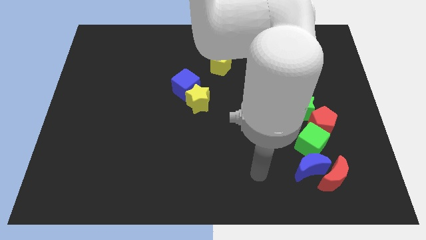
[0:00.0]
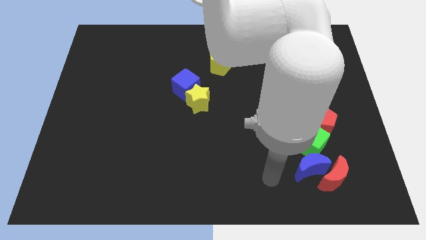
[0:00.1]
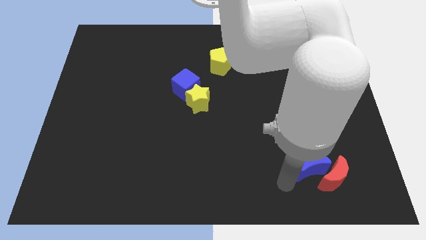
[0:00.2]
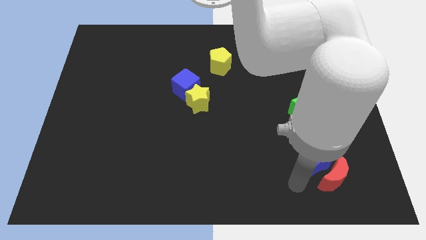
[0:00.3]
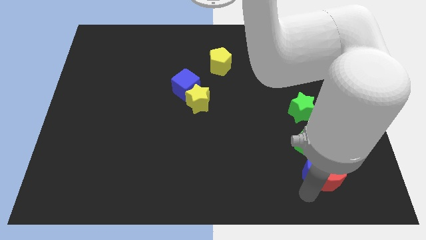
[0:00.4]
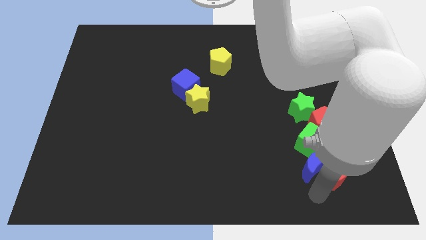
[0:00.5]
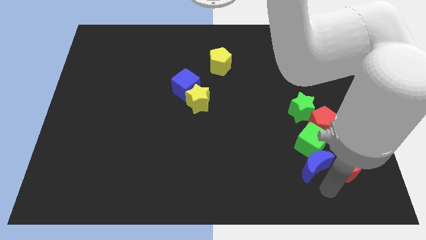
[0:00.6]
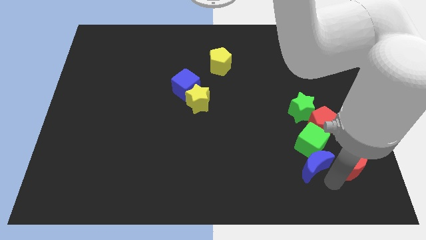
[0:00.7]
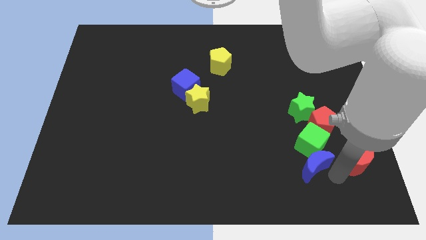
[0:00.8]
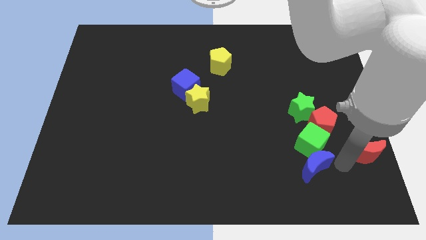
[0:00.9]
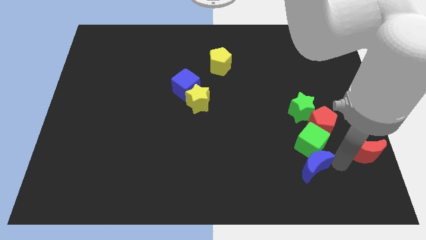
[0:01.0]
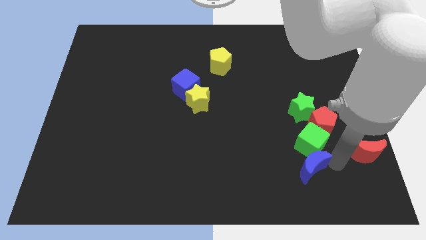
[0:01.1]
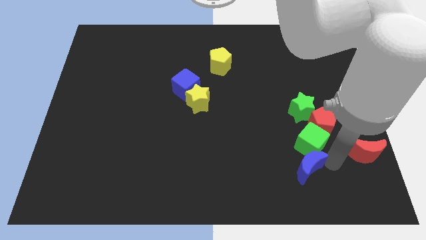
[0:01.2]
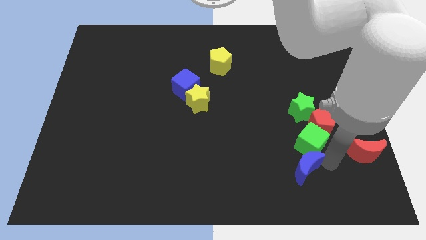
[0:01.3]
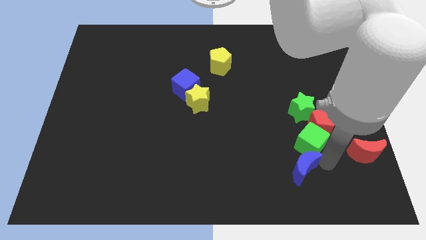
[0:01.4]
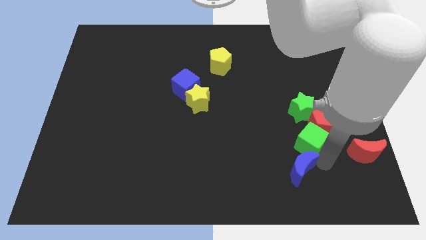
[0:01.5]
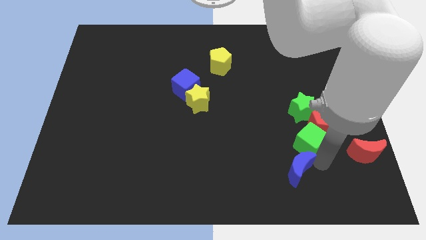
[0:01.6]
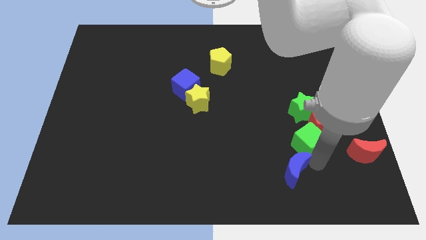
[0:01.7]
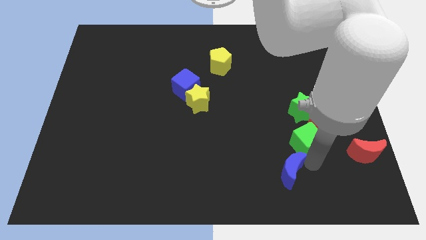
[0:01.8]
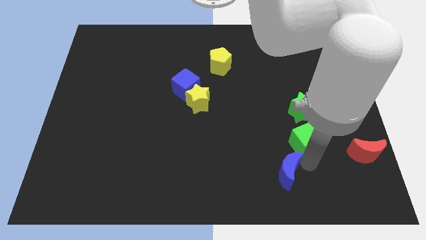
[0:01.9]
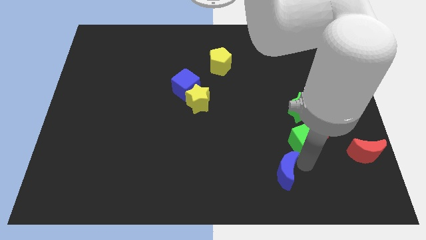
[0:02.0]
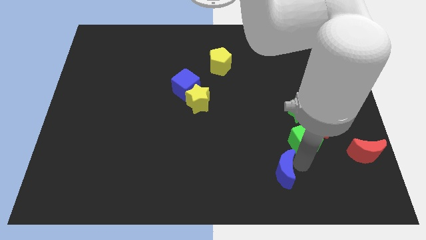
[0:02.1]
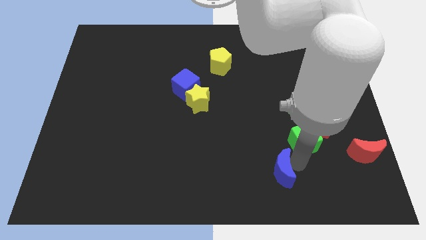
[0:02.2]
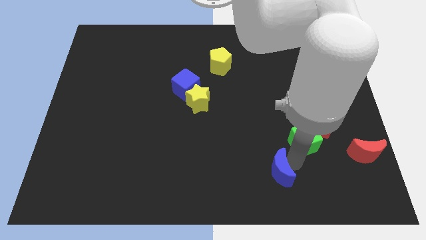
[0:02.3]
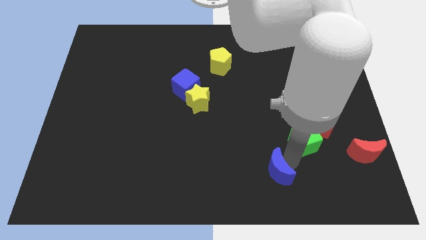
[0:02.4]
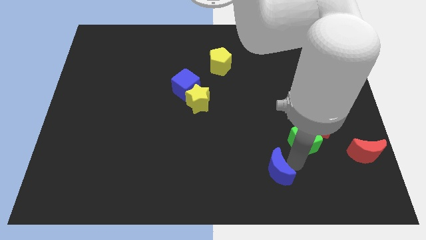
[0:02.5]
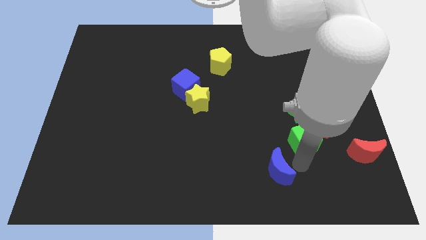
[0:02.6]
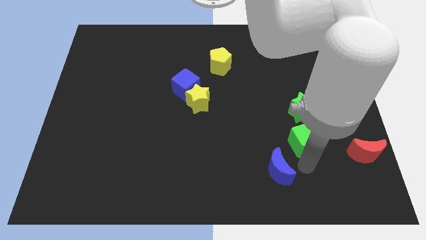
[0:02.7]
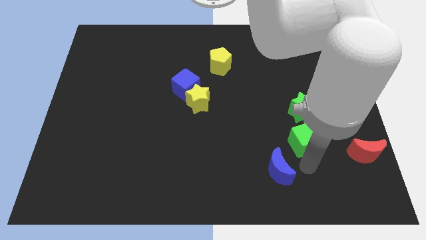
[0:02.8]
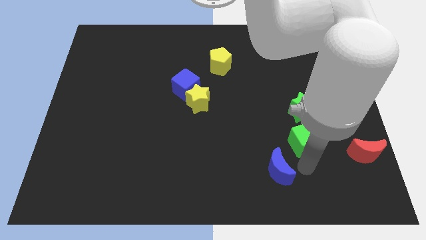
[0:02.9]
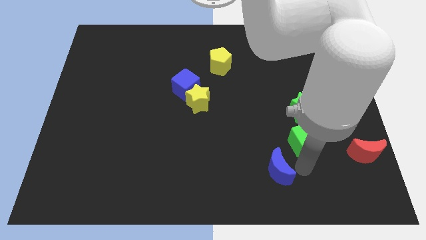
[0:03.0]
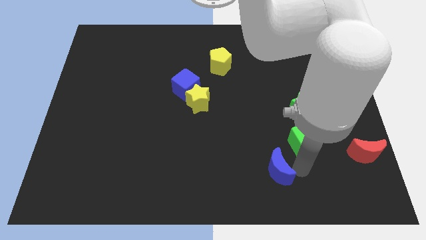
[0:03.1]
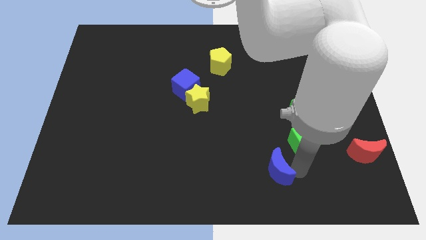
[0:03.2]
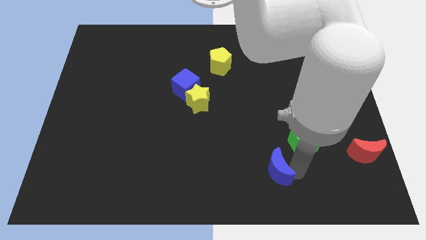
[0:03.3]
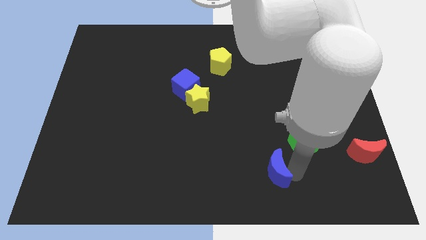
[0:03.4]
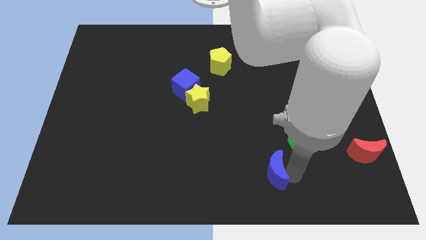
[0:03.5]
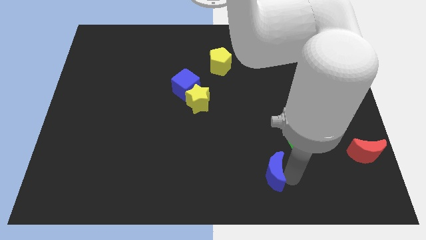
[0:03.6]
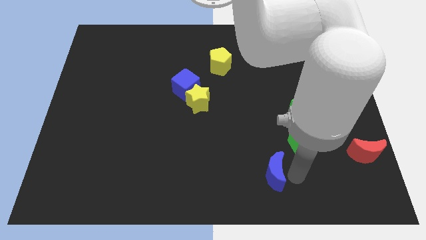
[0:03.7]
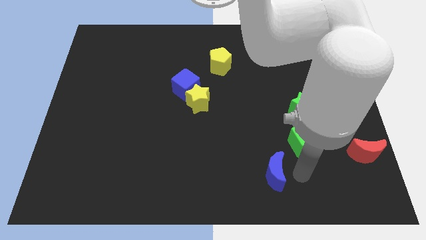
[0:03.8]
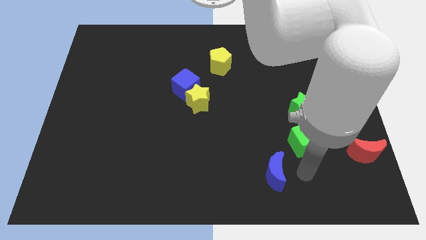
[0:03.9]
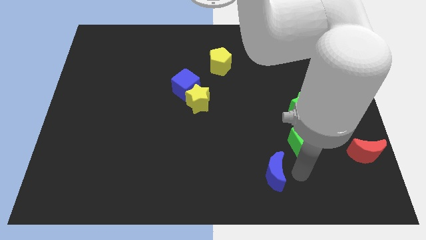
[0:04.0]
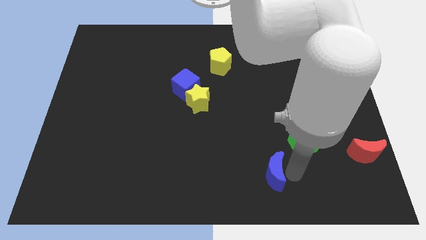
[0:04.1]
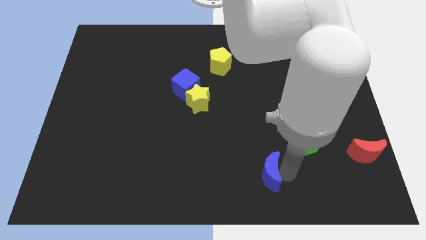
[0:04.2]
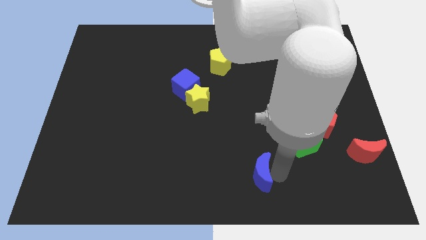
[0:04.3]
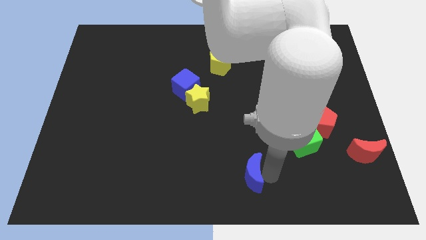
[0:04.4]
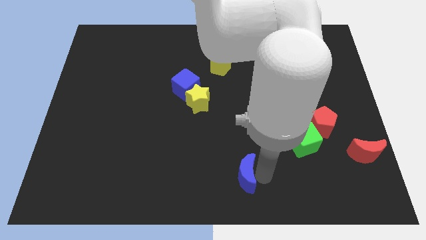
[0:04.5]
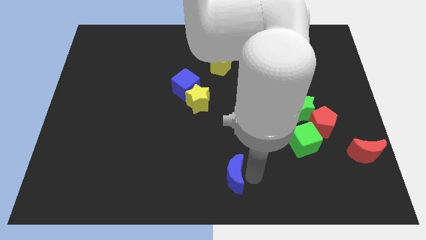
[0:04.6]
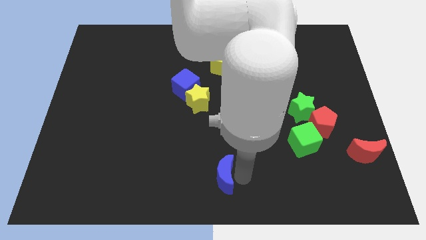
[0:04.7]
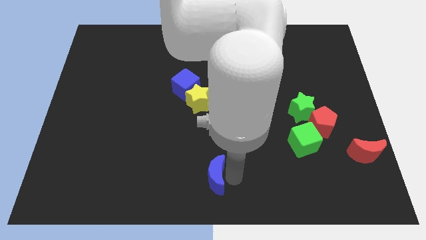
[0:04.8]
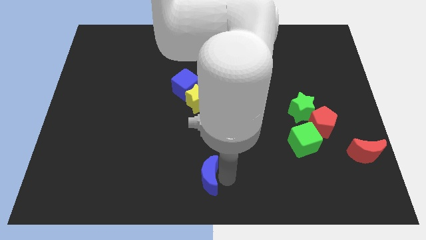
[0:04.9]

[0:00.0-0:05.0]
push the blue moon left

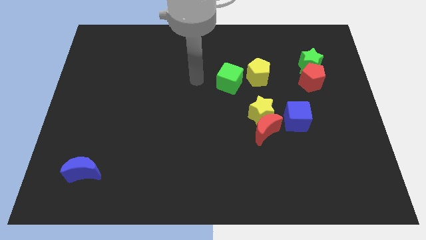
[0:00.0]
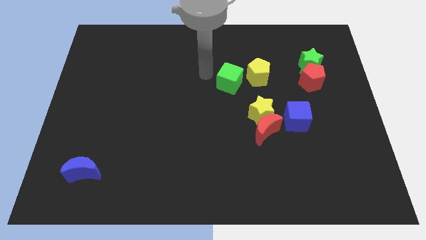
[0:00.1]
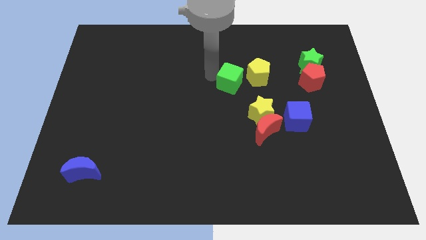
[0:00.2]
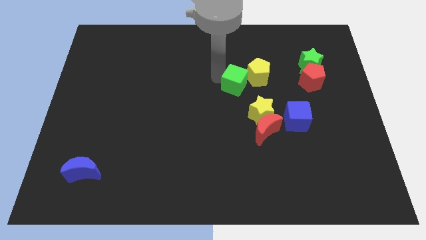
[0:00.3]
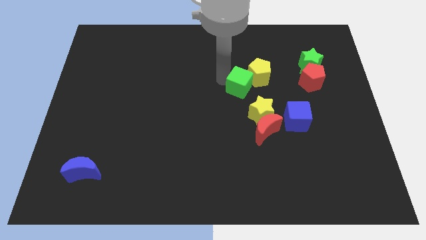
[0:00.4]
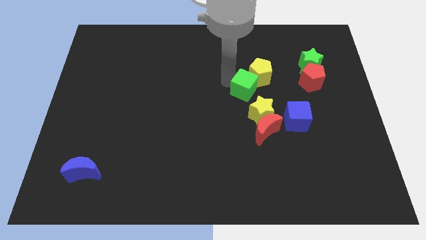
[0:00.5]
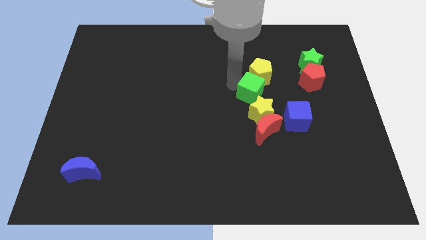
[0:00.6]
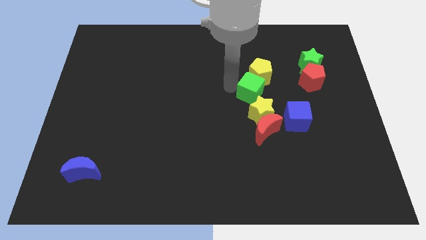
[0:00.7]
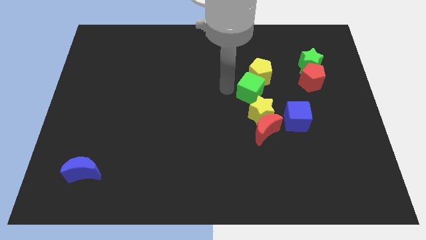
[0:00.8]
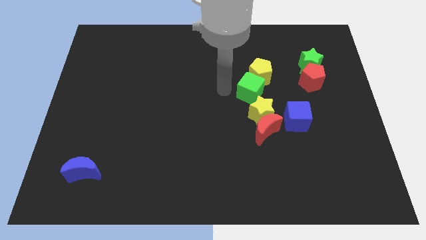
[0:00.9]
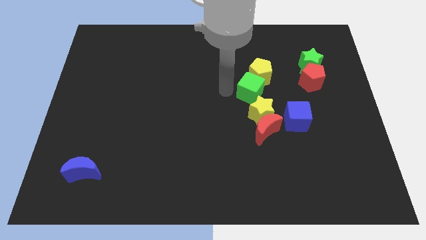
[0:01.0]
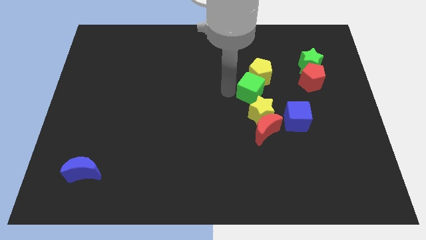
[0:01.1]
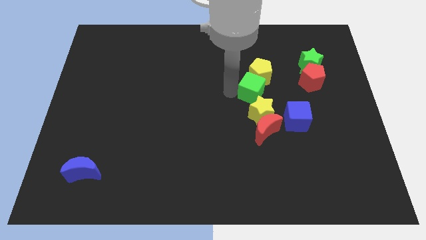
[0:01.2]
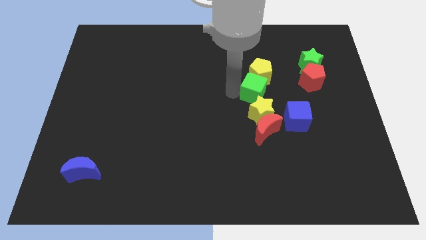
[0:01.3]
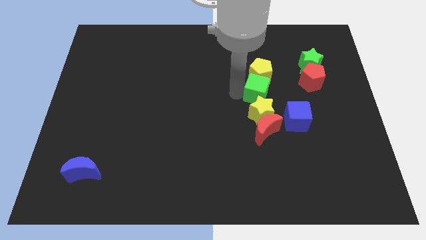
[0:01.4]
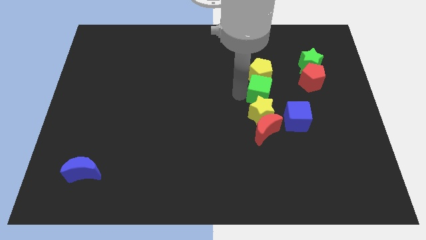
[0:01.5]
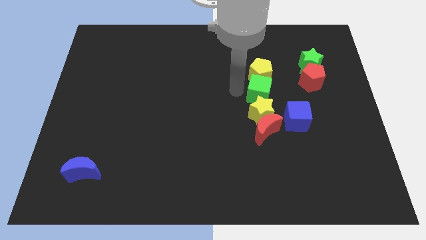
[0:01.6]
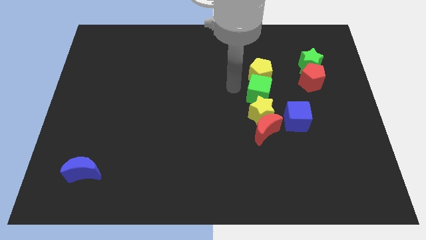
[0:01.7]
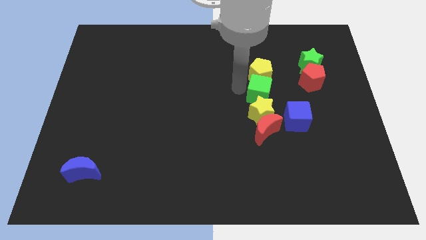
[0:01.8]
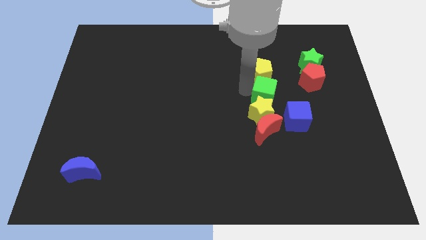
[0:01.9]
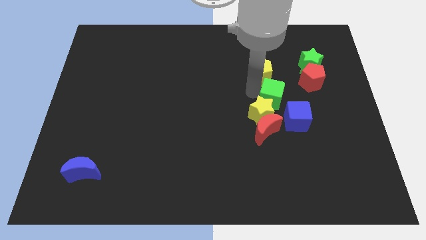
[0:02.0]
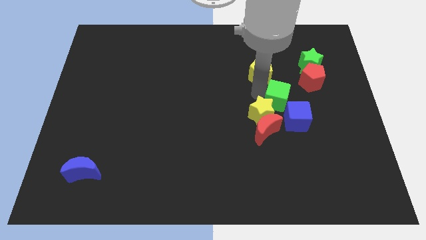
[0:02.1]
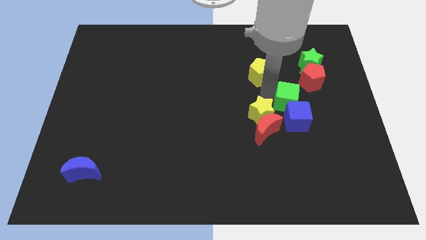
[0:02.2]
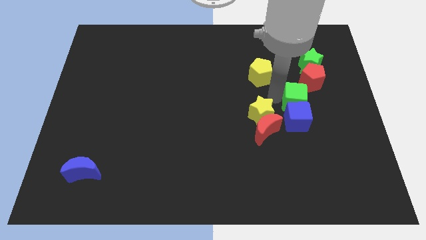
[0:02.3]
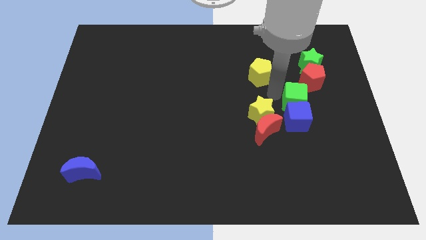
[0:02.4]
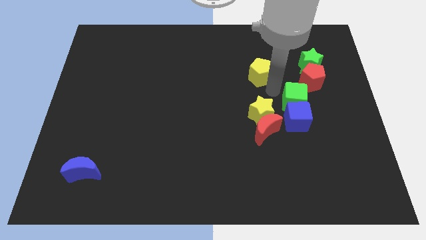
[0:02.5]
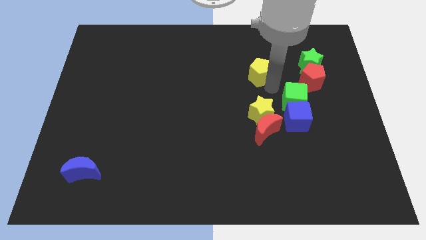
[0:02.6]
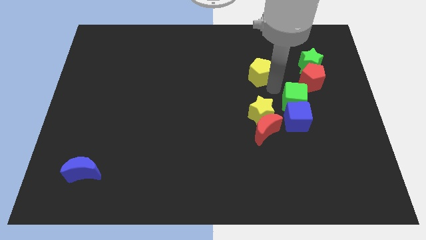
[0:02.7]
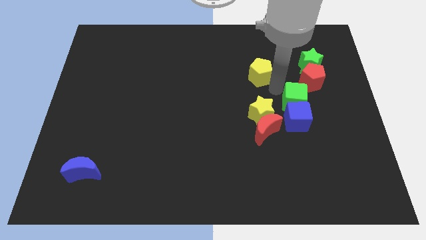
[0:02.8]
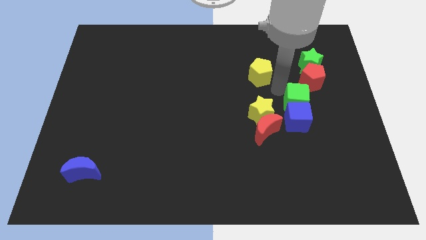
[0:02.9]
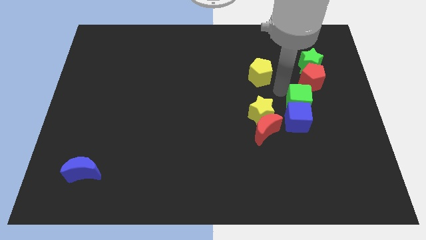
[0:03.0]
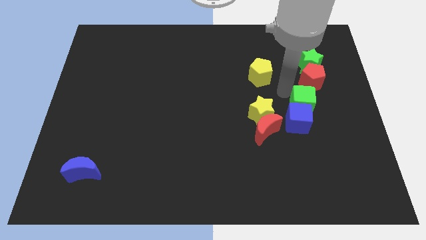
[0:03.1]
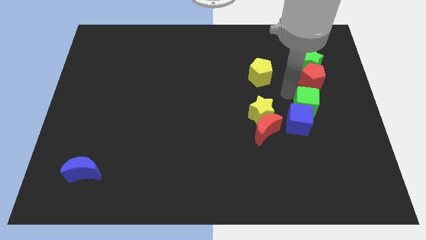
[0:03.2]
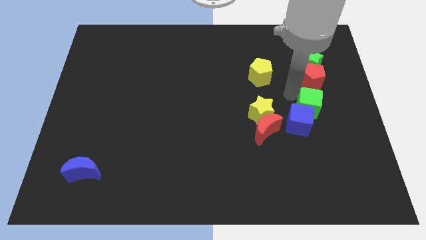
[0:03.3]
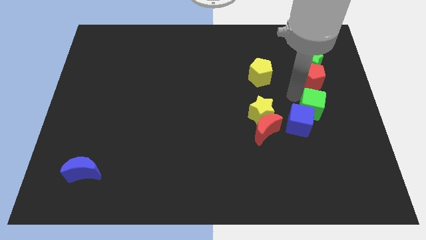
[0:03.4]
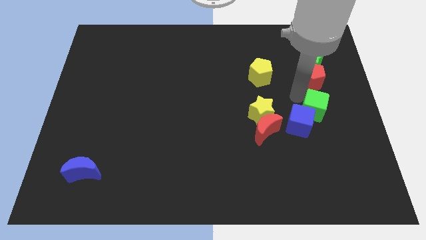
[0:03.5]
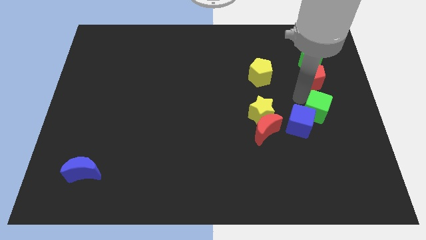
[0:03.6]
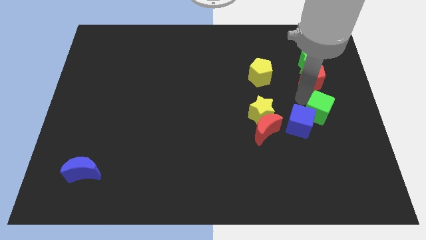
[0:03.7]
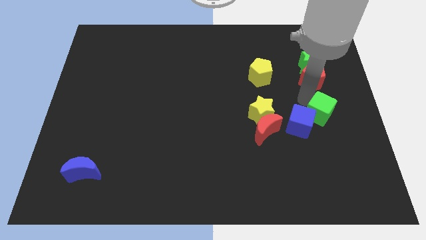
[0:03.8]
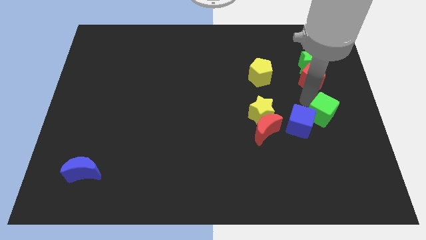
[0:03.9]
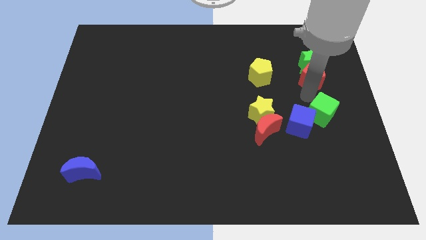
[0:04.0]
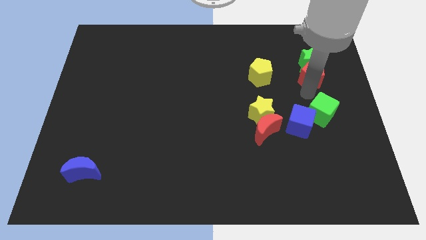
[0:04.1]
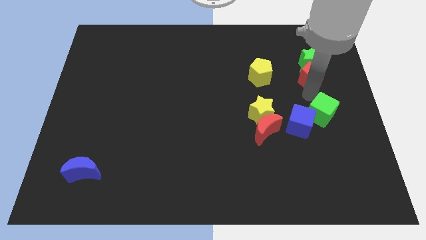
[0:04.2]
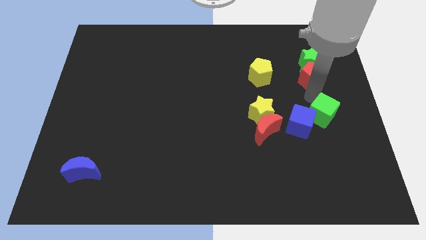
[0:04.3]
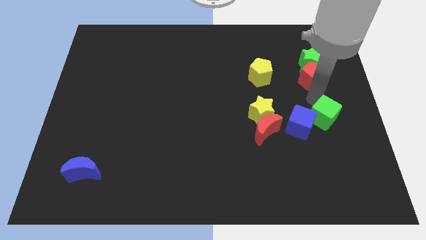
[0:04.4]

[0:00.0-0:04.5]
move the green cube downwards and then to the right
